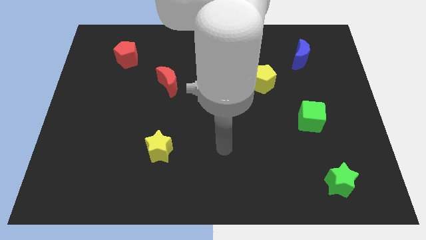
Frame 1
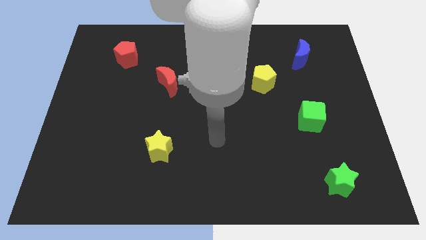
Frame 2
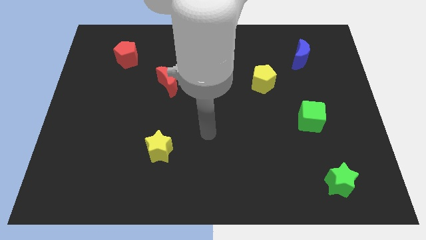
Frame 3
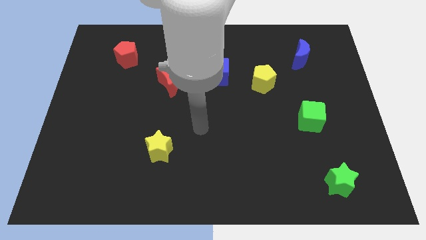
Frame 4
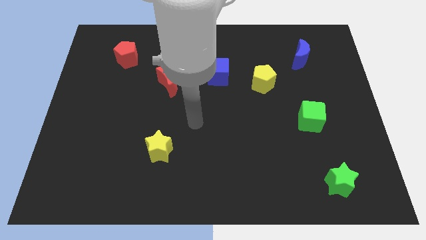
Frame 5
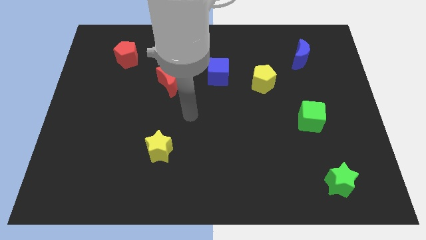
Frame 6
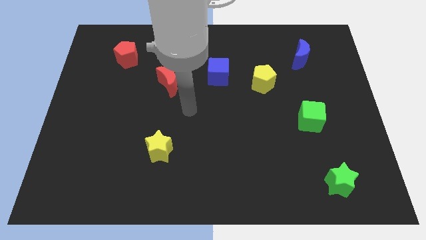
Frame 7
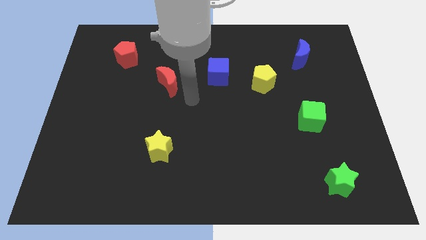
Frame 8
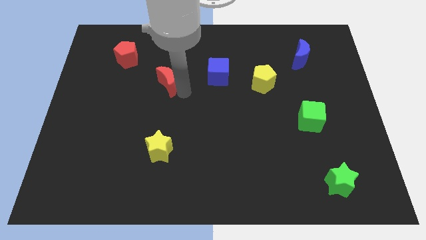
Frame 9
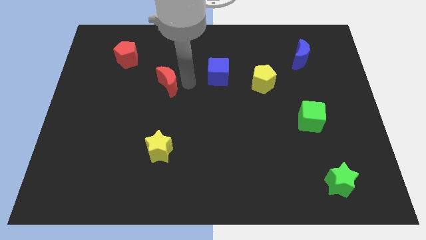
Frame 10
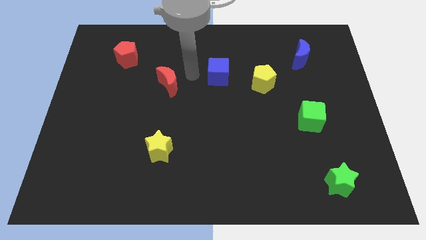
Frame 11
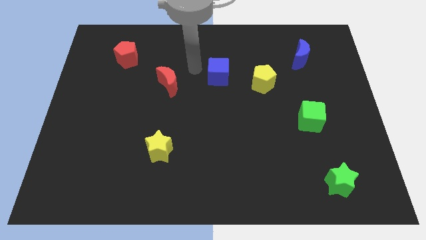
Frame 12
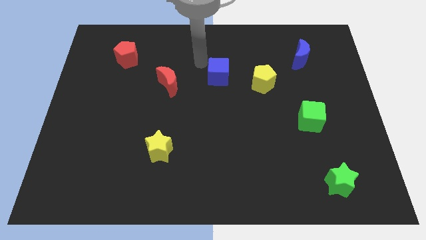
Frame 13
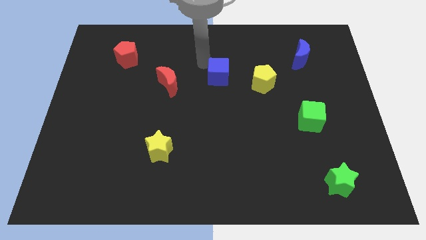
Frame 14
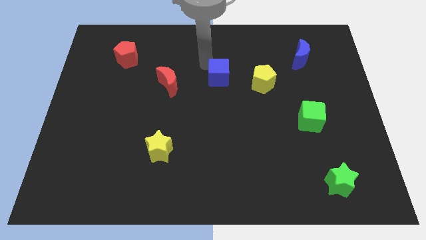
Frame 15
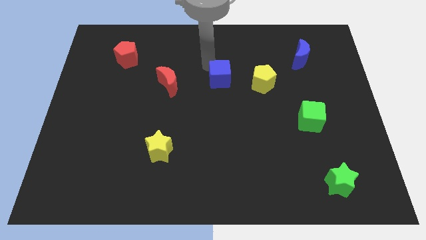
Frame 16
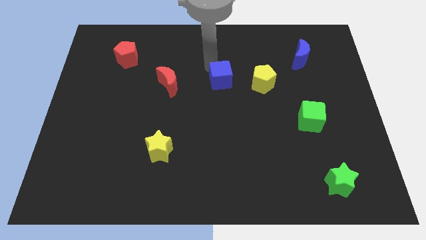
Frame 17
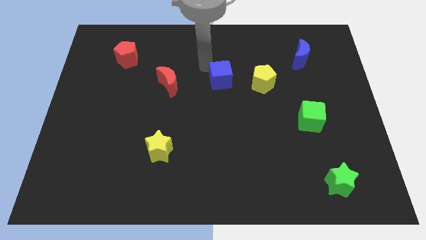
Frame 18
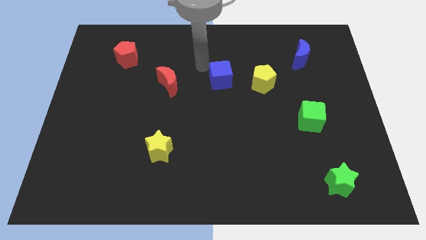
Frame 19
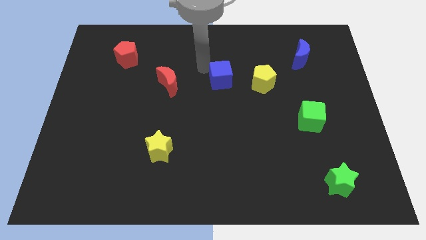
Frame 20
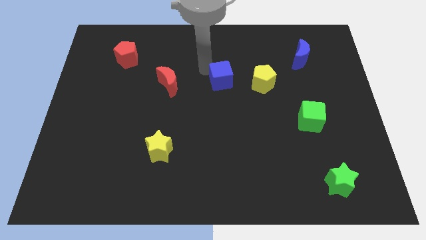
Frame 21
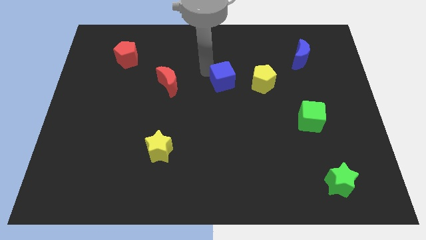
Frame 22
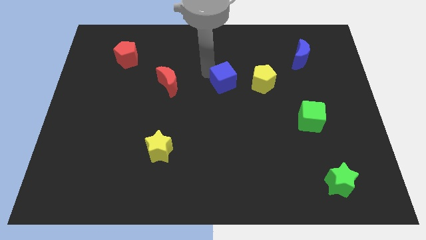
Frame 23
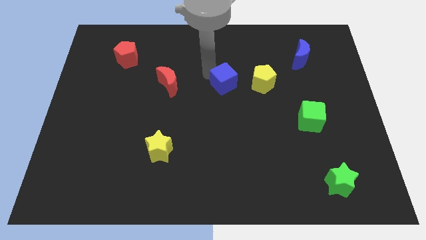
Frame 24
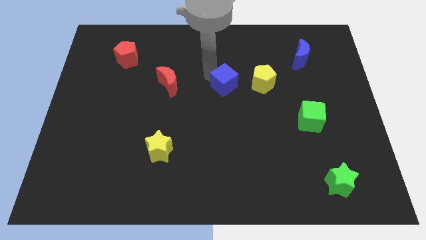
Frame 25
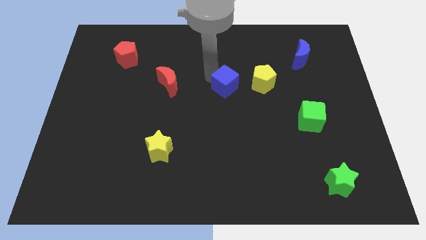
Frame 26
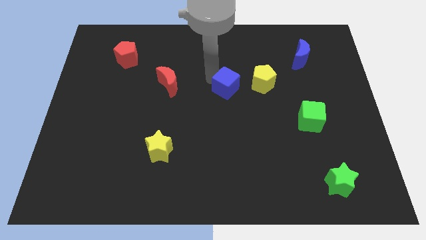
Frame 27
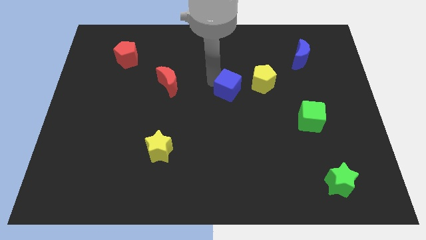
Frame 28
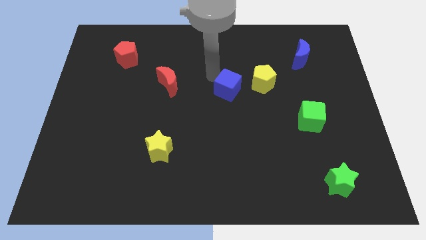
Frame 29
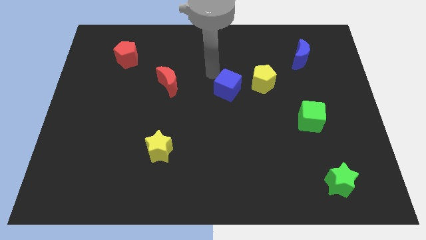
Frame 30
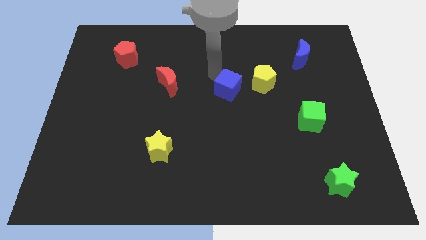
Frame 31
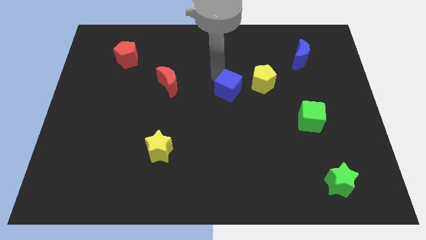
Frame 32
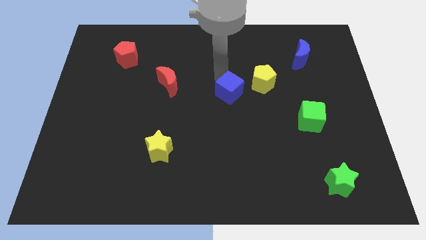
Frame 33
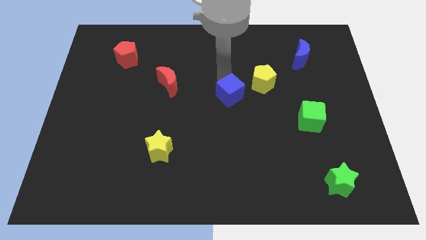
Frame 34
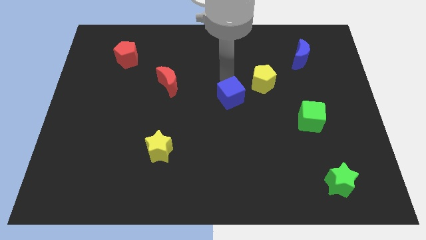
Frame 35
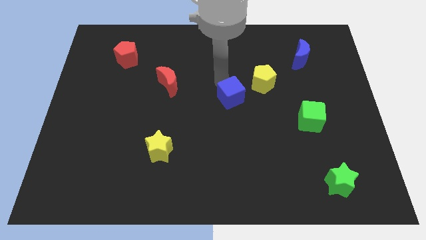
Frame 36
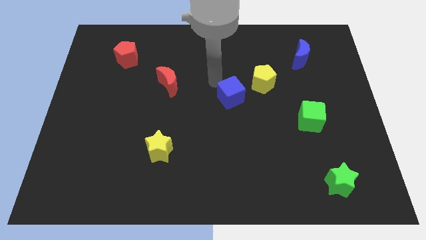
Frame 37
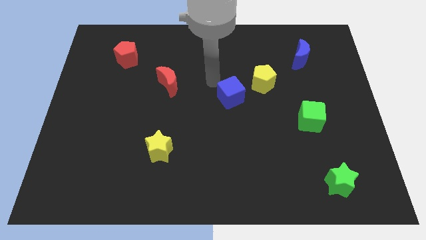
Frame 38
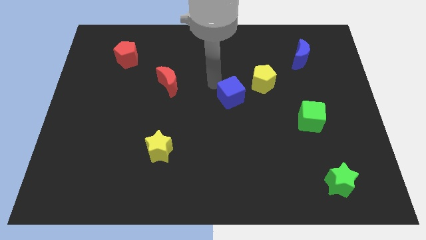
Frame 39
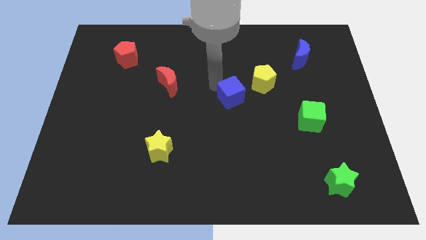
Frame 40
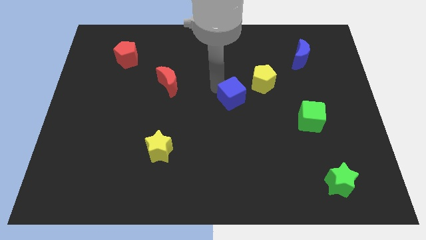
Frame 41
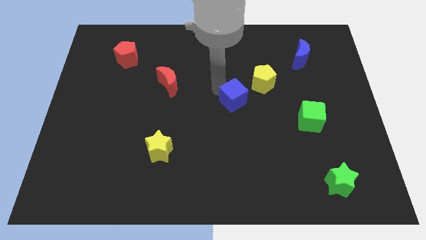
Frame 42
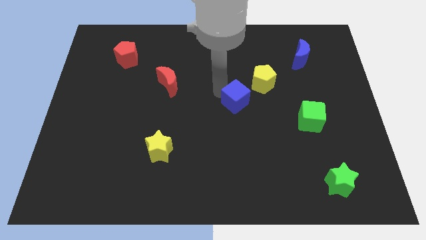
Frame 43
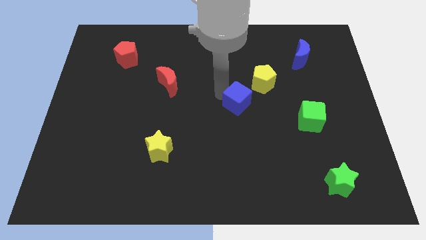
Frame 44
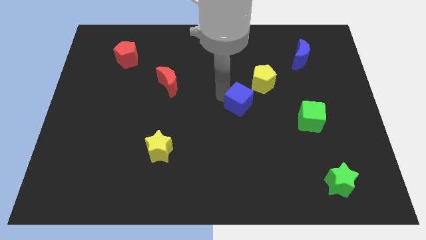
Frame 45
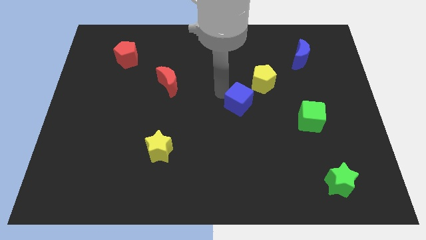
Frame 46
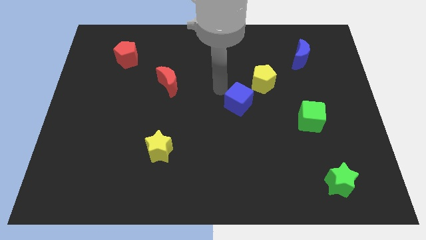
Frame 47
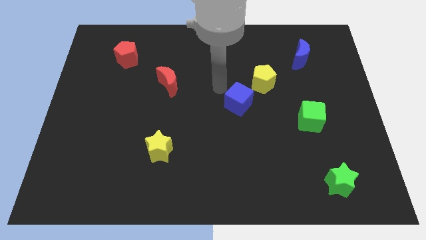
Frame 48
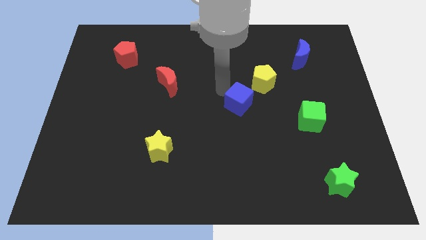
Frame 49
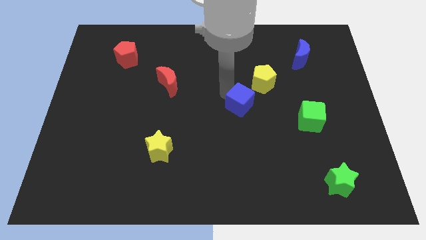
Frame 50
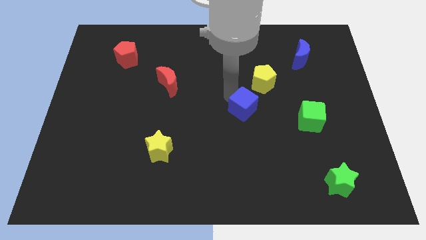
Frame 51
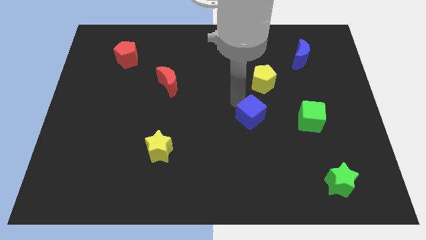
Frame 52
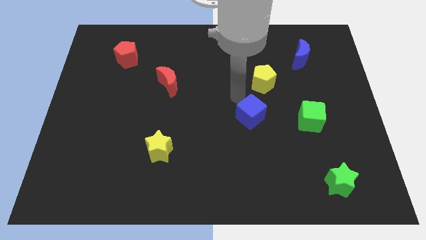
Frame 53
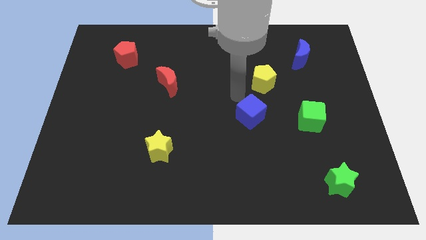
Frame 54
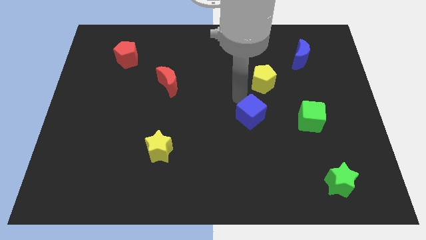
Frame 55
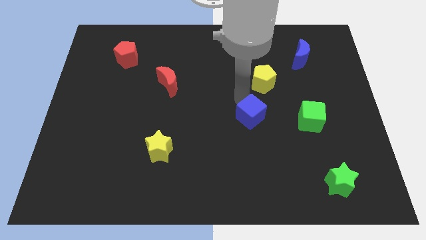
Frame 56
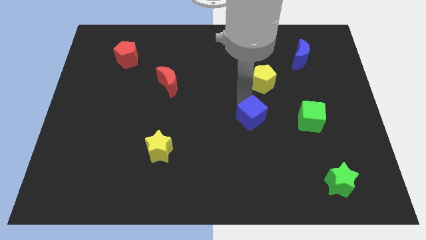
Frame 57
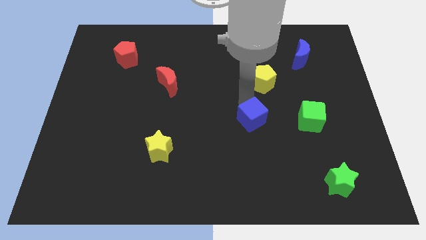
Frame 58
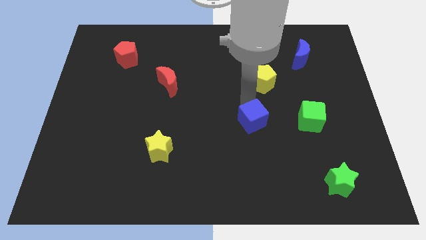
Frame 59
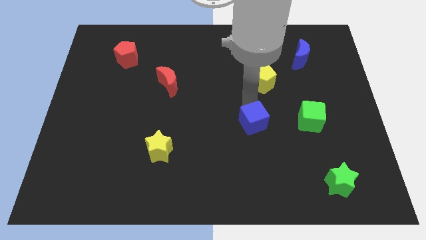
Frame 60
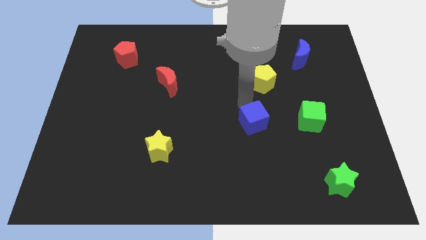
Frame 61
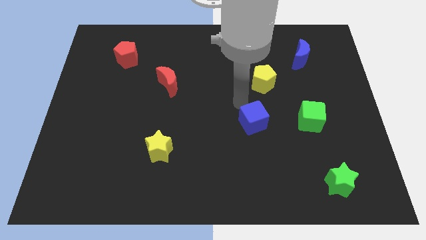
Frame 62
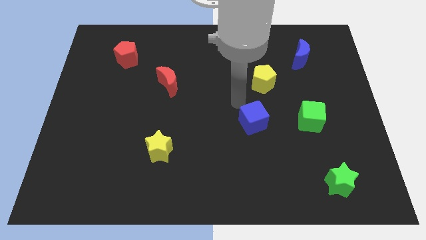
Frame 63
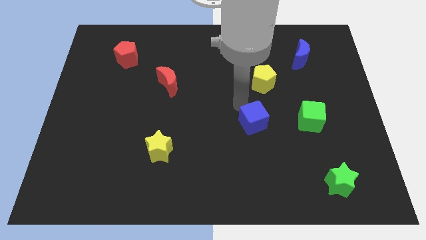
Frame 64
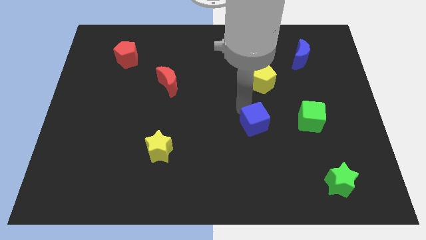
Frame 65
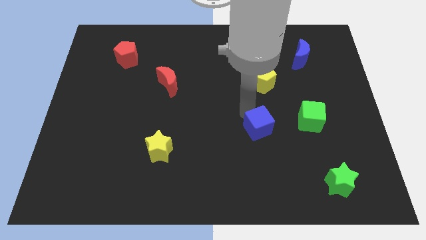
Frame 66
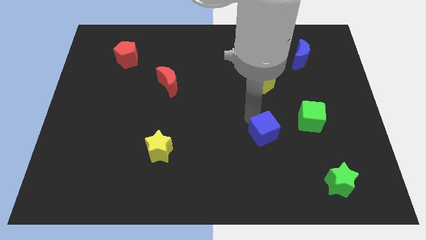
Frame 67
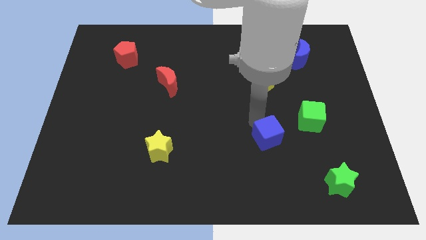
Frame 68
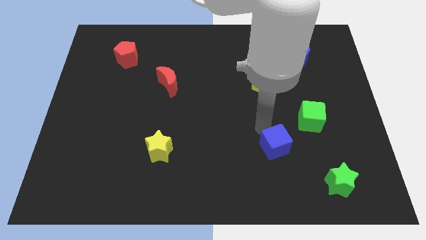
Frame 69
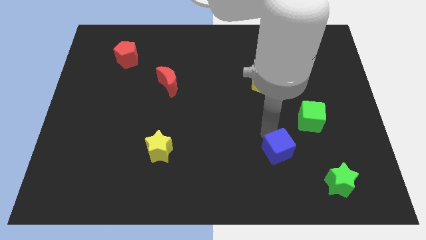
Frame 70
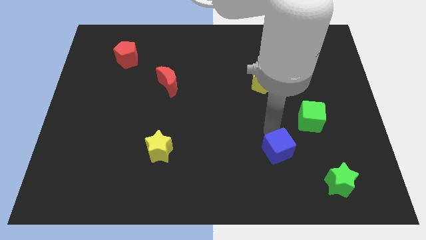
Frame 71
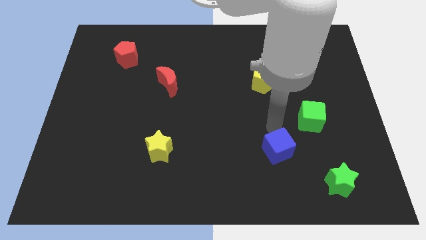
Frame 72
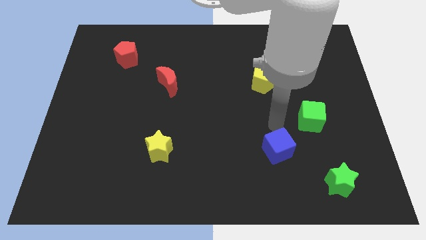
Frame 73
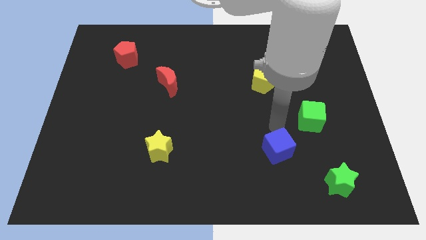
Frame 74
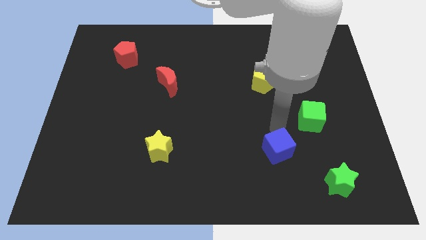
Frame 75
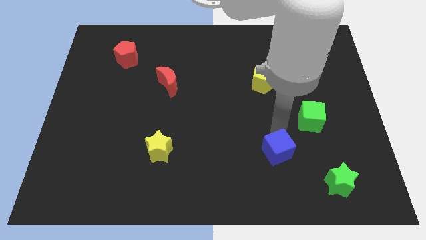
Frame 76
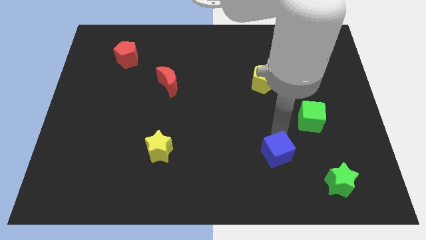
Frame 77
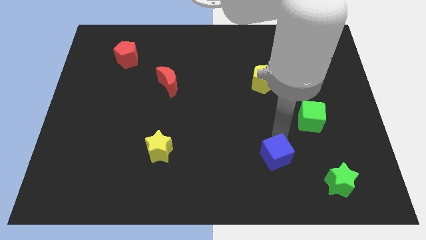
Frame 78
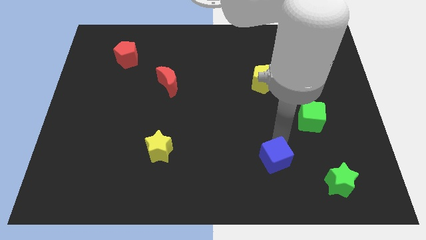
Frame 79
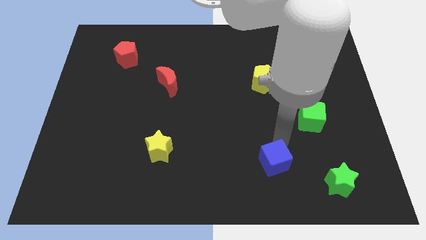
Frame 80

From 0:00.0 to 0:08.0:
put the blue cube to the left side of the green star
